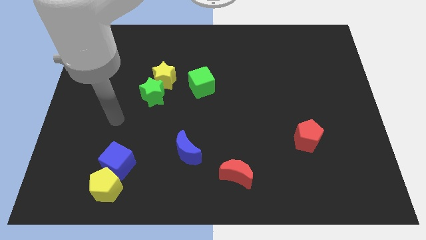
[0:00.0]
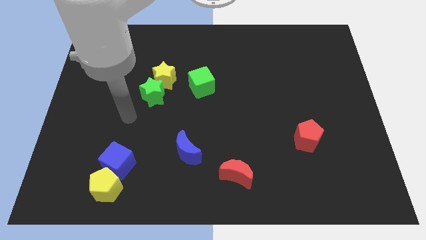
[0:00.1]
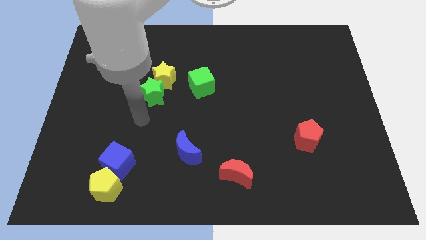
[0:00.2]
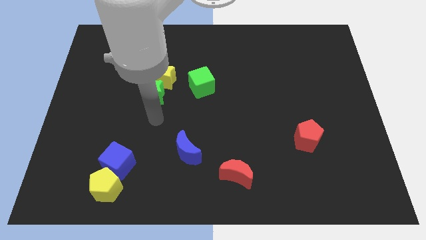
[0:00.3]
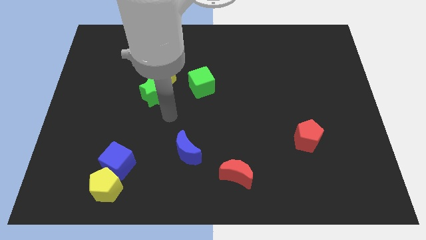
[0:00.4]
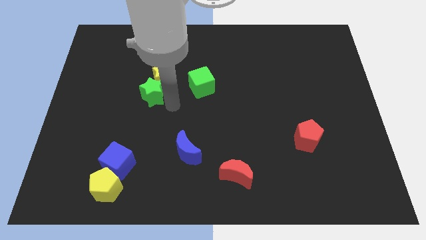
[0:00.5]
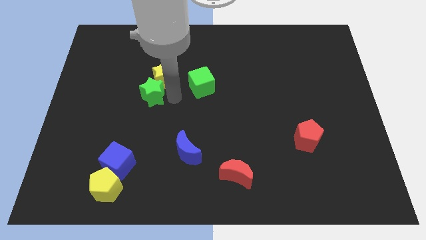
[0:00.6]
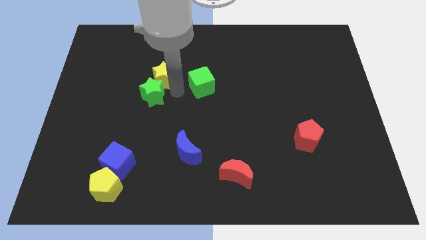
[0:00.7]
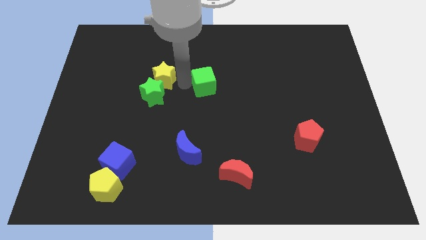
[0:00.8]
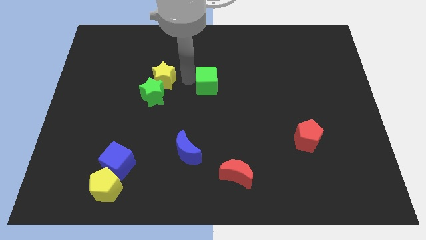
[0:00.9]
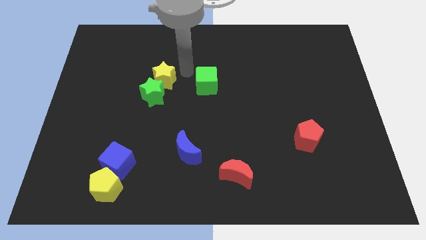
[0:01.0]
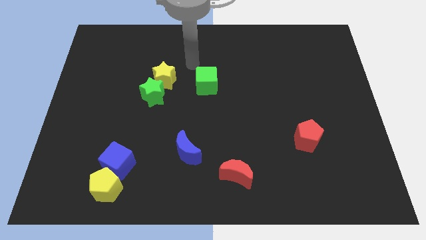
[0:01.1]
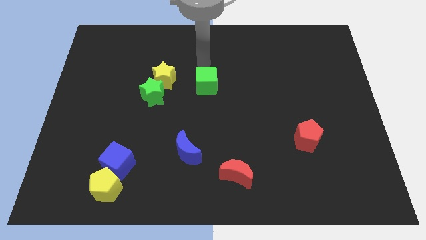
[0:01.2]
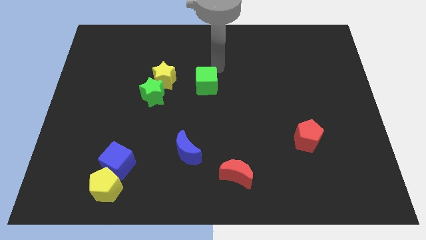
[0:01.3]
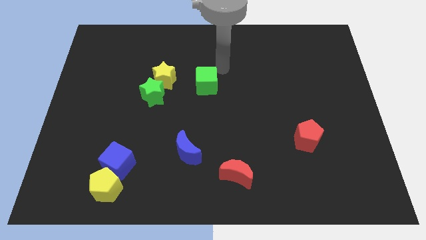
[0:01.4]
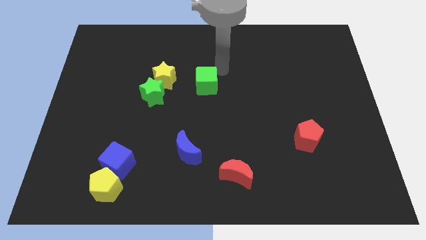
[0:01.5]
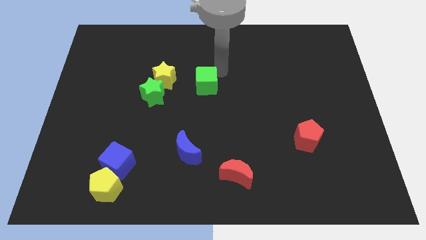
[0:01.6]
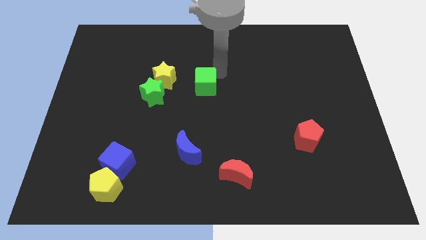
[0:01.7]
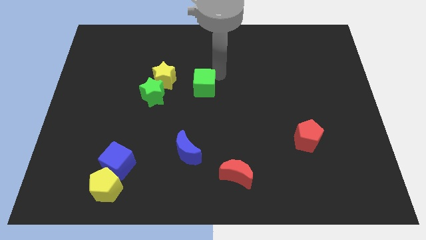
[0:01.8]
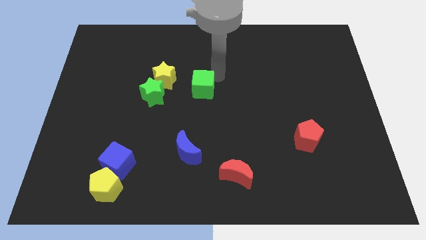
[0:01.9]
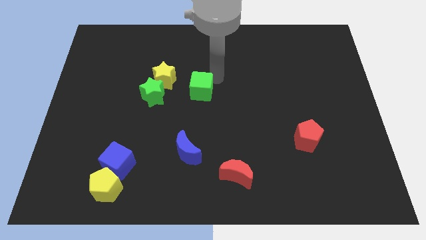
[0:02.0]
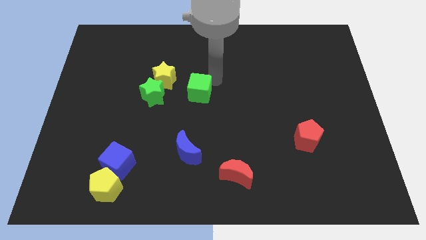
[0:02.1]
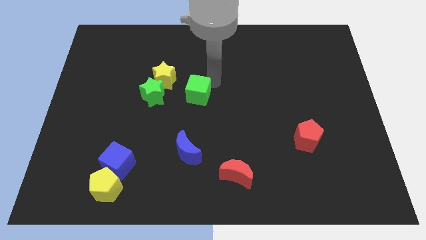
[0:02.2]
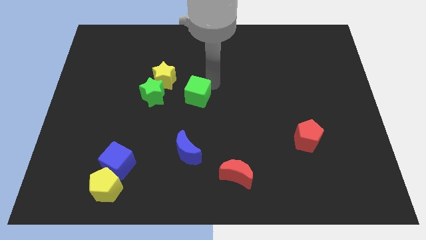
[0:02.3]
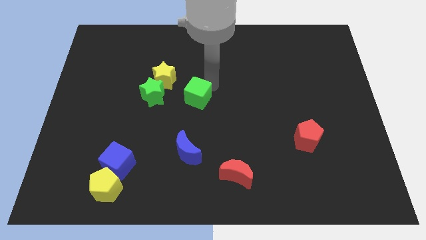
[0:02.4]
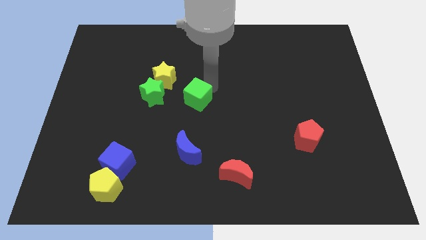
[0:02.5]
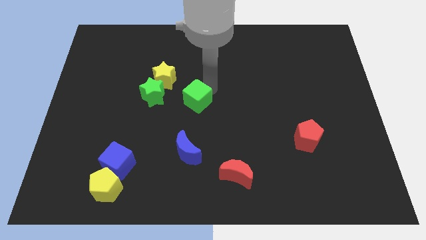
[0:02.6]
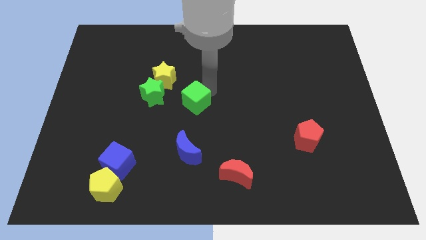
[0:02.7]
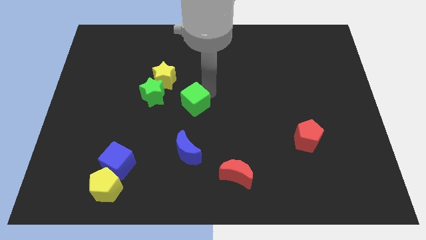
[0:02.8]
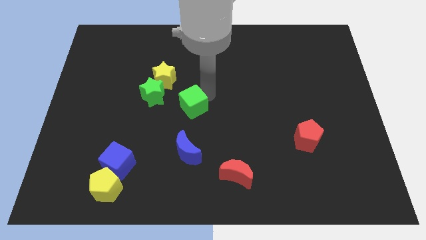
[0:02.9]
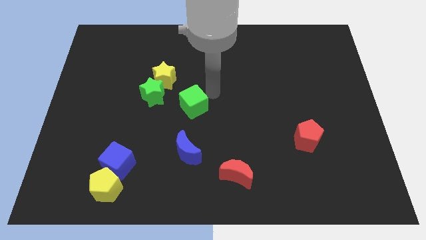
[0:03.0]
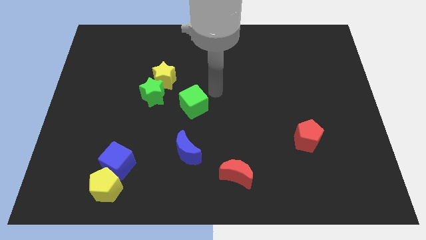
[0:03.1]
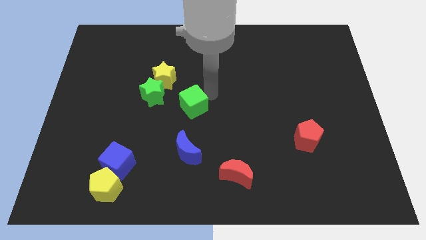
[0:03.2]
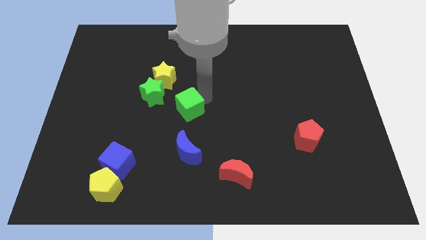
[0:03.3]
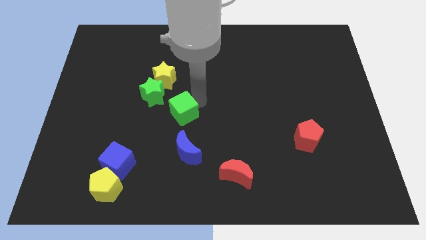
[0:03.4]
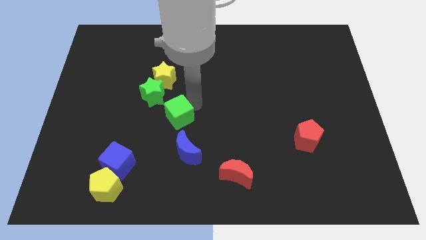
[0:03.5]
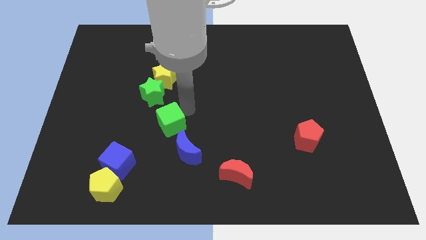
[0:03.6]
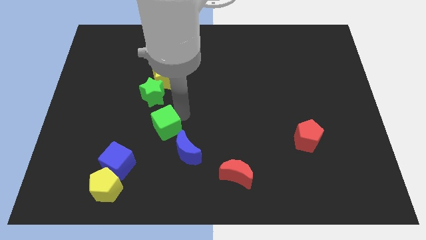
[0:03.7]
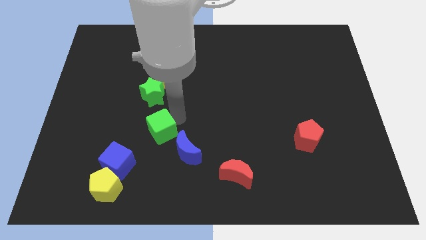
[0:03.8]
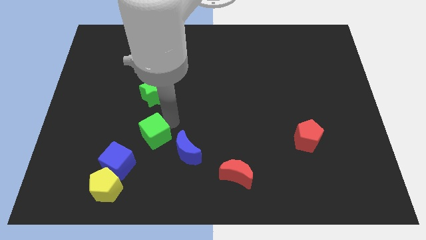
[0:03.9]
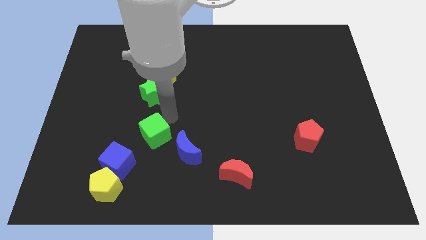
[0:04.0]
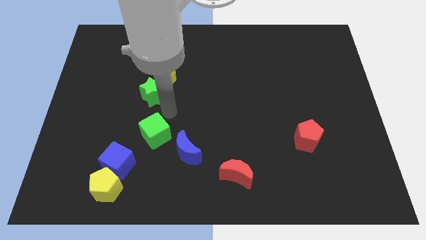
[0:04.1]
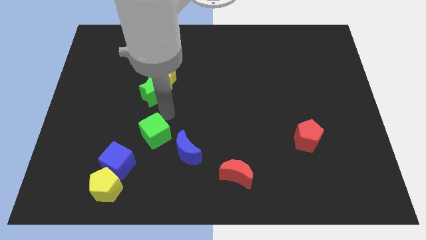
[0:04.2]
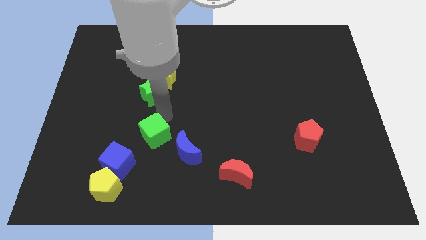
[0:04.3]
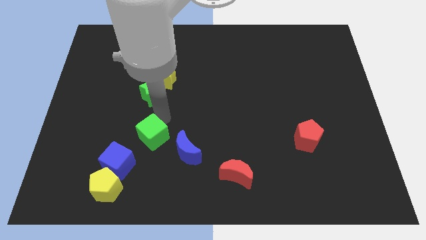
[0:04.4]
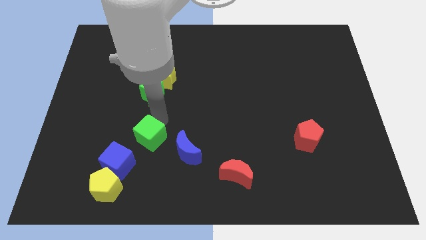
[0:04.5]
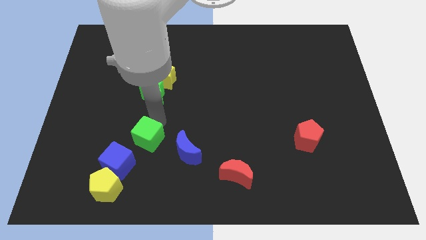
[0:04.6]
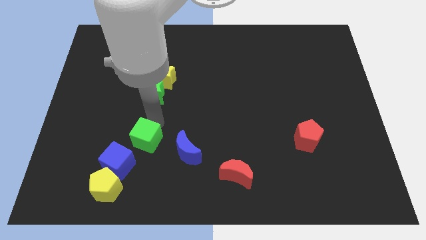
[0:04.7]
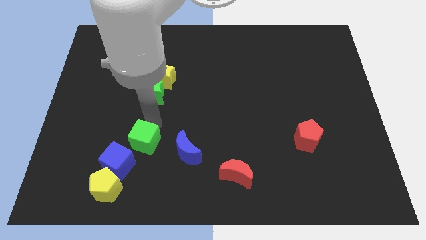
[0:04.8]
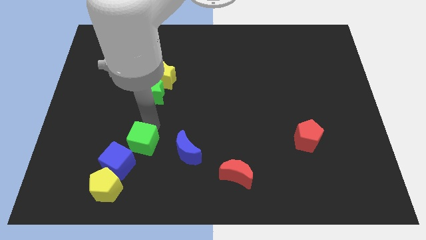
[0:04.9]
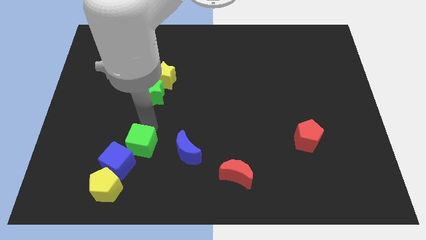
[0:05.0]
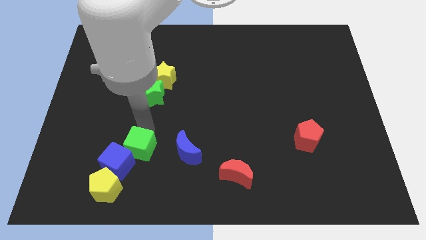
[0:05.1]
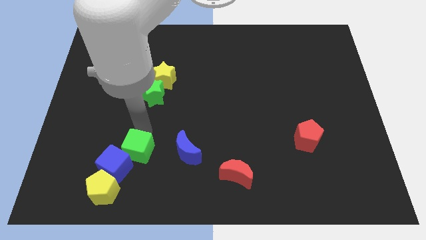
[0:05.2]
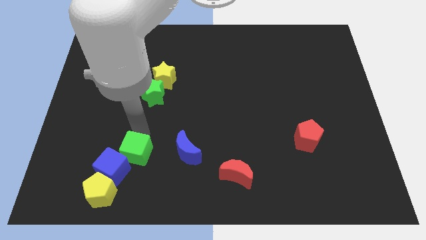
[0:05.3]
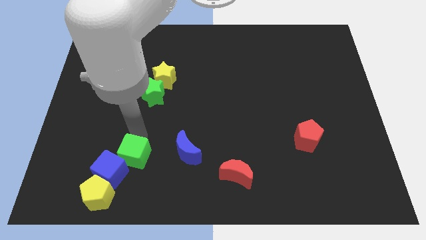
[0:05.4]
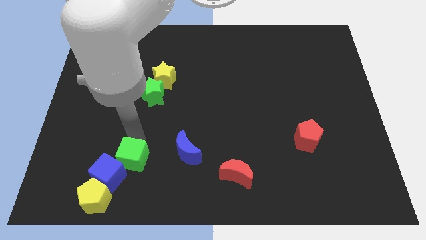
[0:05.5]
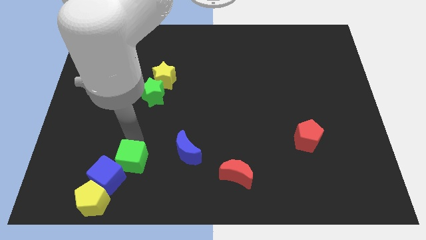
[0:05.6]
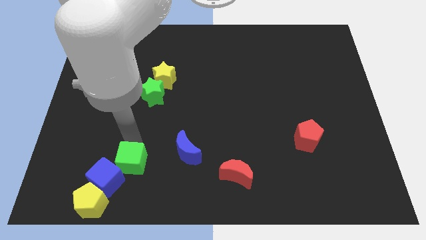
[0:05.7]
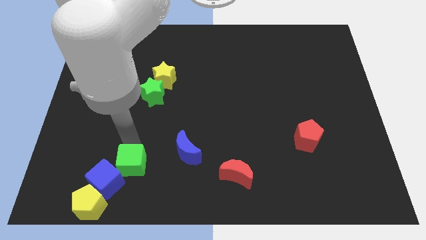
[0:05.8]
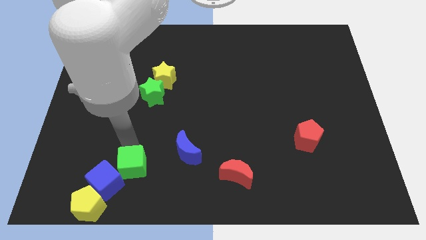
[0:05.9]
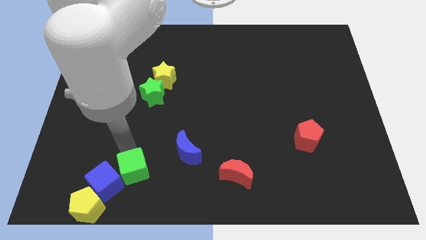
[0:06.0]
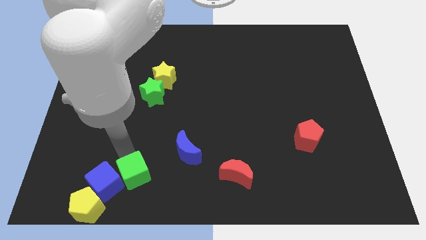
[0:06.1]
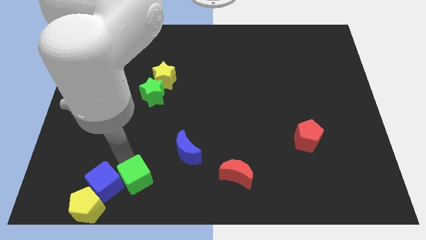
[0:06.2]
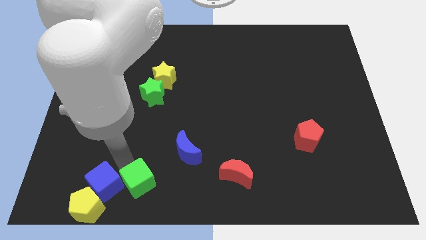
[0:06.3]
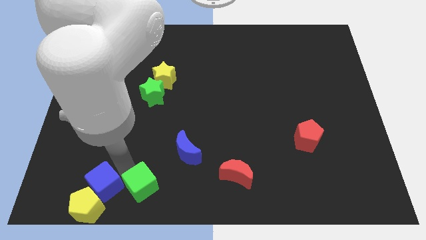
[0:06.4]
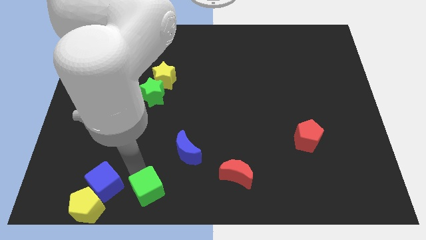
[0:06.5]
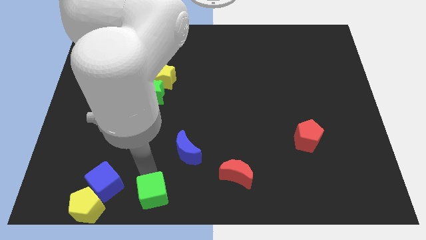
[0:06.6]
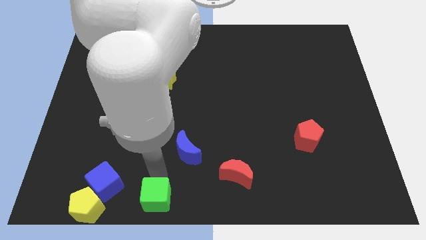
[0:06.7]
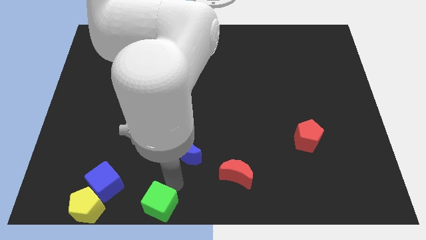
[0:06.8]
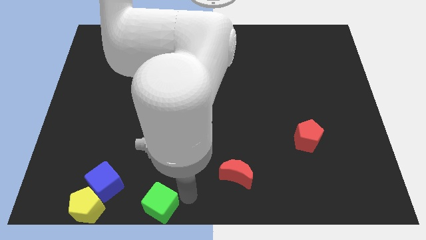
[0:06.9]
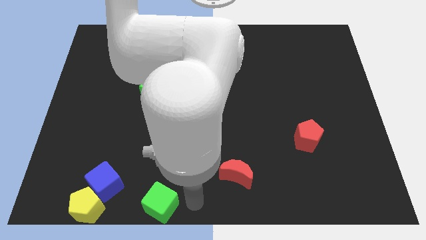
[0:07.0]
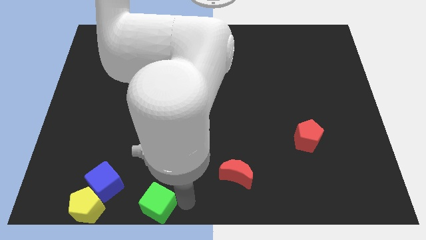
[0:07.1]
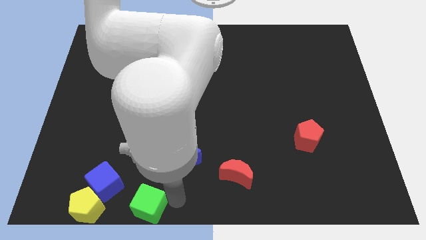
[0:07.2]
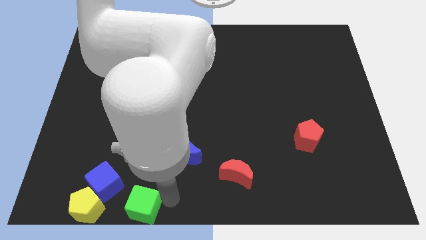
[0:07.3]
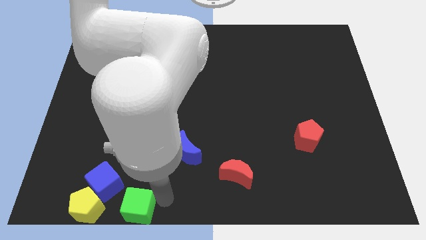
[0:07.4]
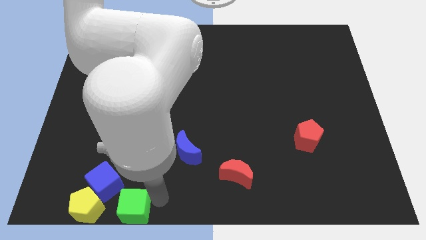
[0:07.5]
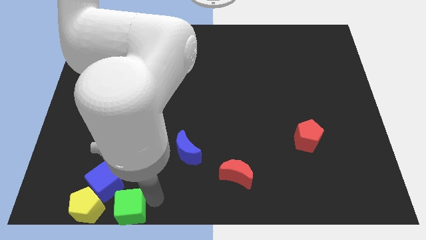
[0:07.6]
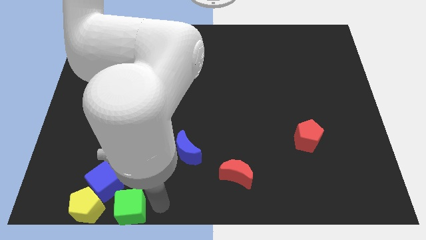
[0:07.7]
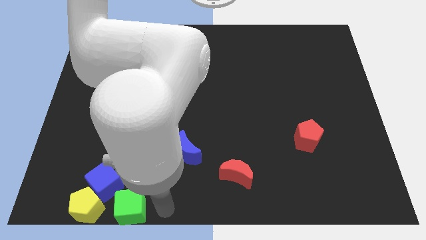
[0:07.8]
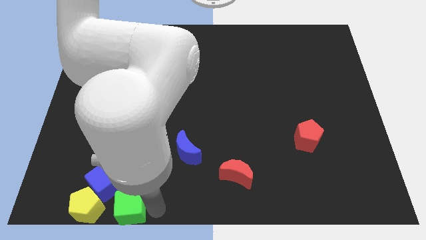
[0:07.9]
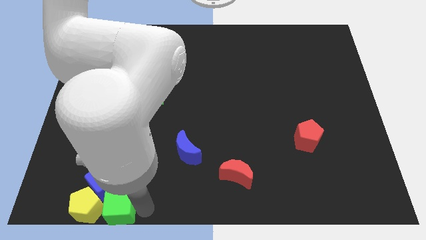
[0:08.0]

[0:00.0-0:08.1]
move the green cube next to the yellow pentagon
